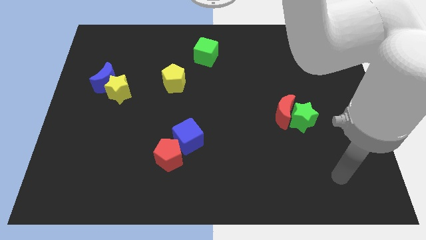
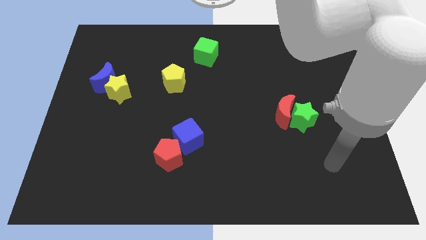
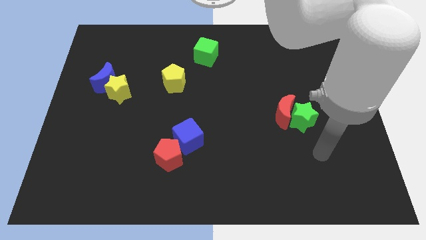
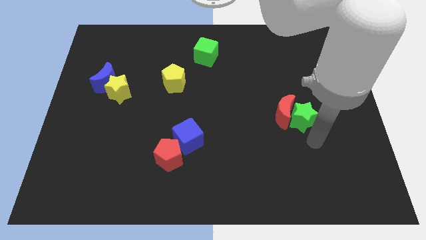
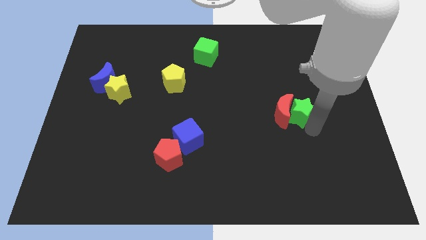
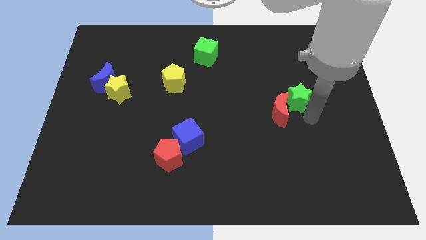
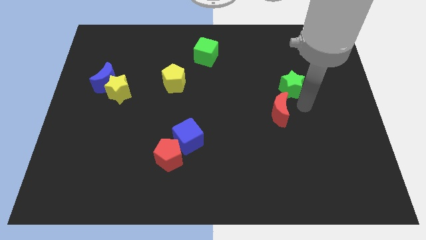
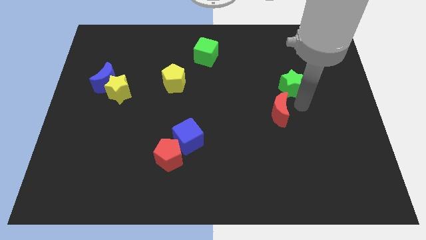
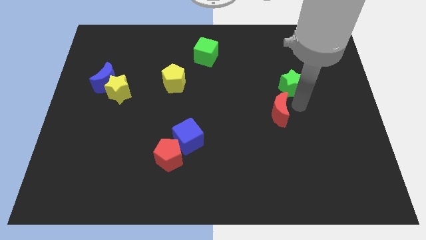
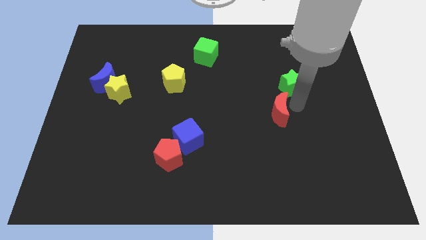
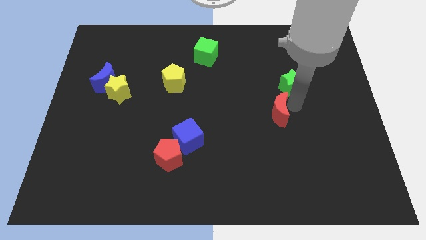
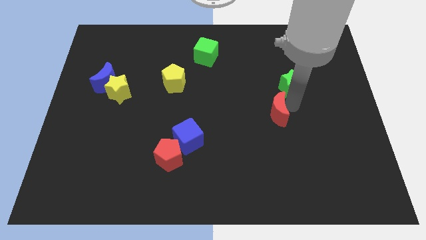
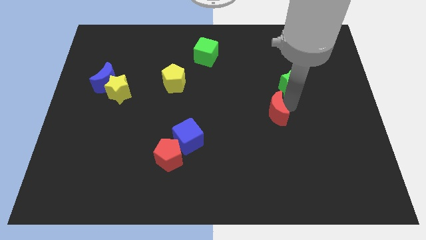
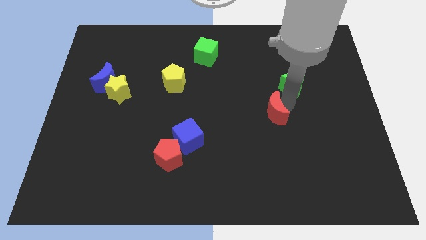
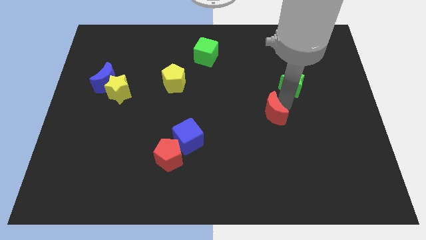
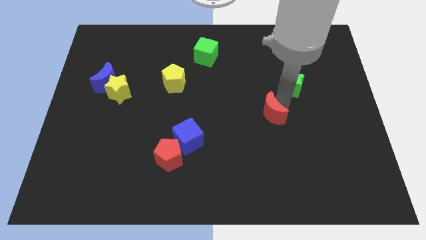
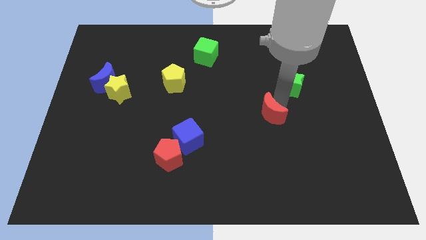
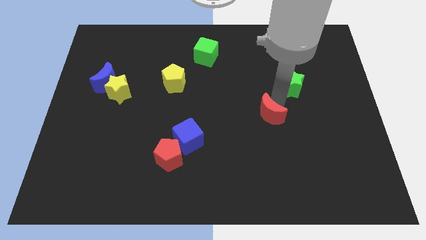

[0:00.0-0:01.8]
move the red moon away from the green star

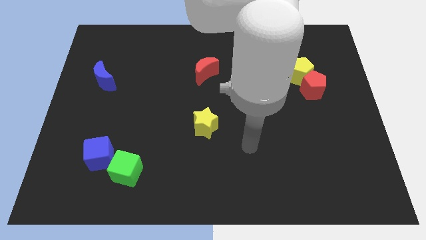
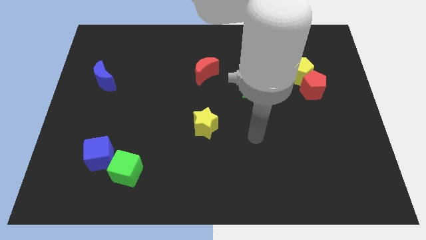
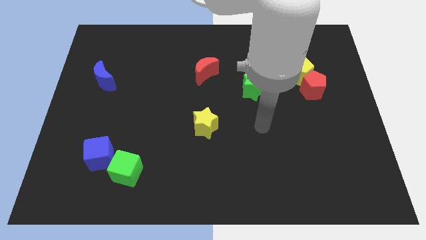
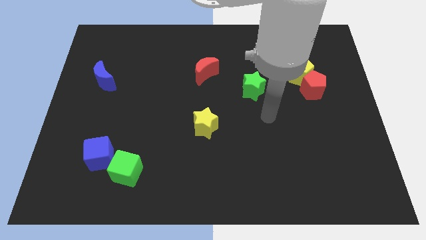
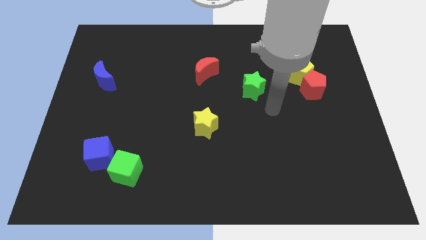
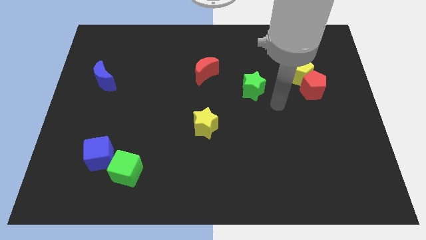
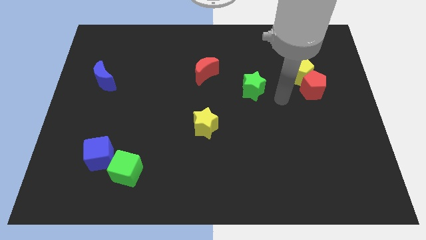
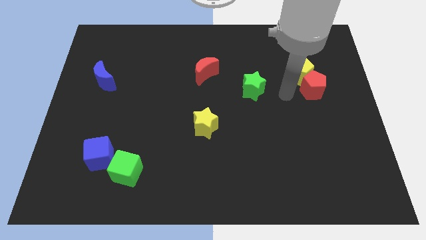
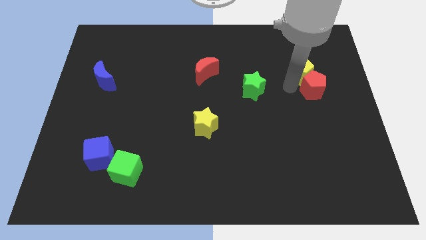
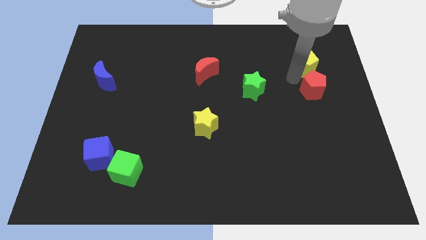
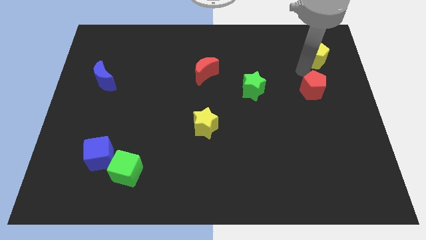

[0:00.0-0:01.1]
pull the red pentagon apart from the yellow pentagon

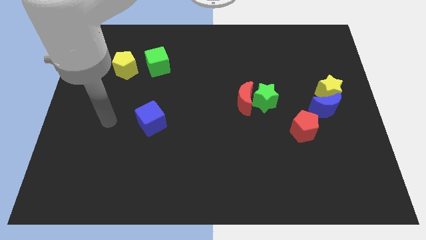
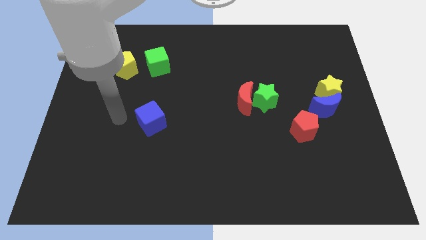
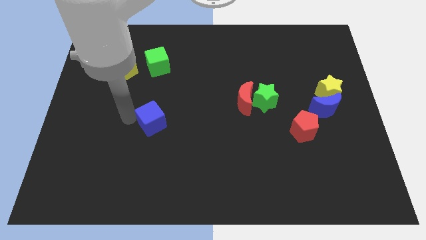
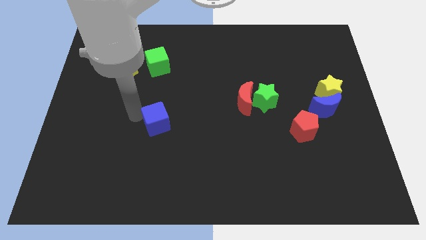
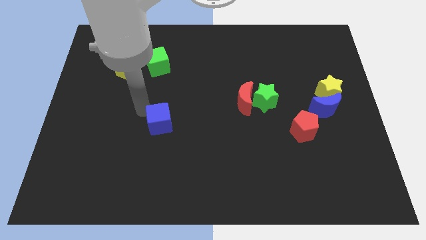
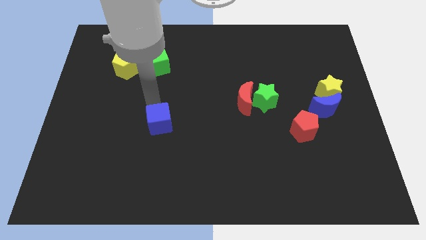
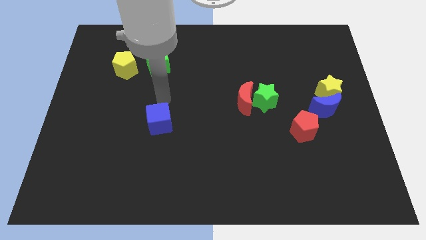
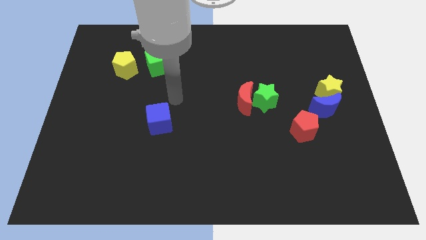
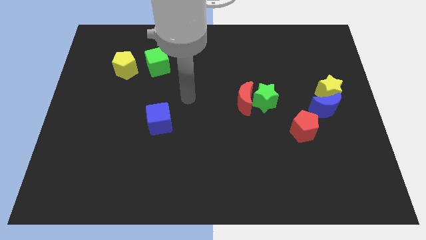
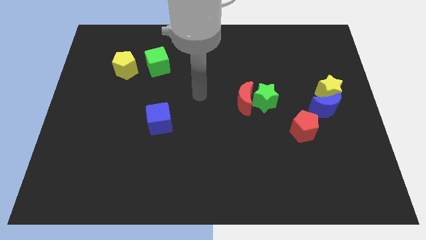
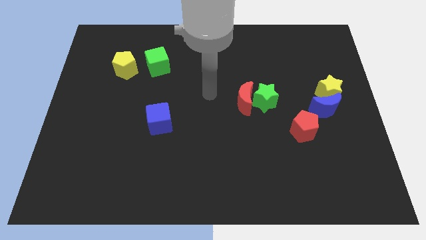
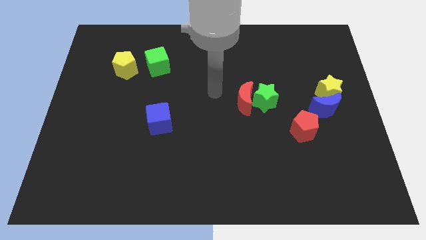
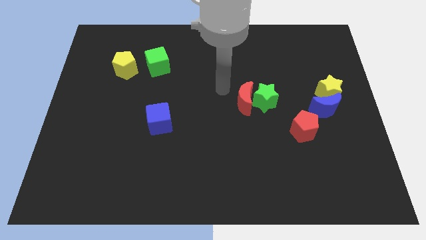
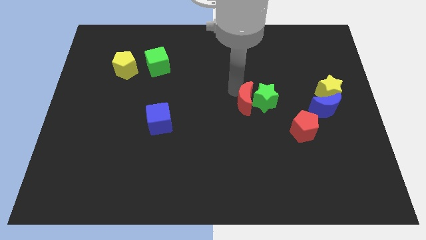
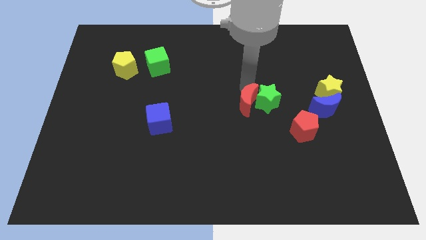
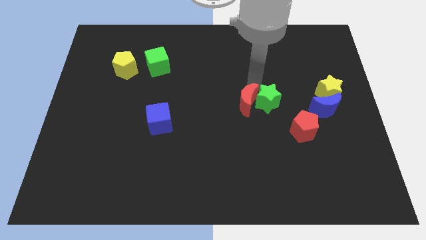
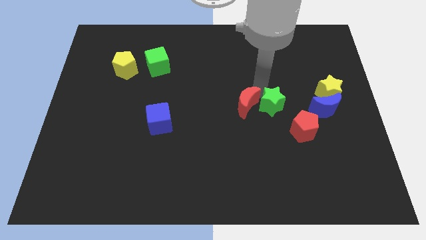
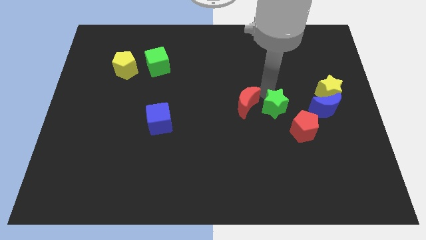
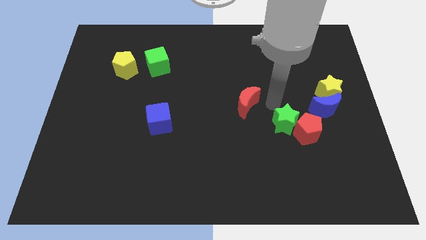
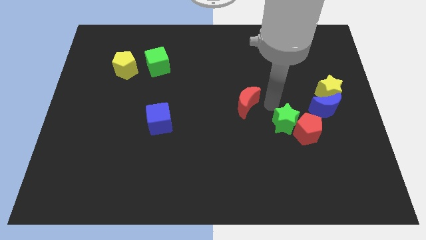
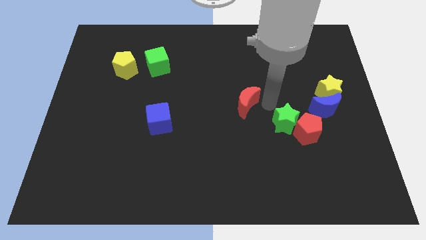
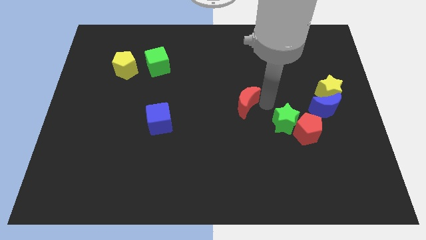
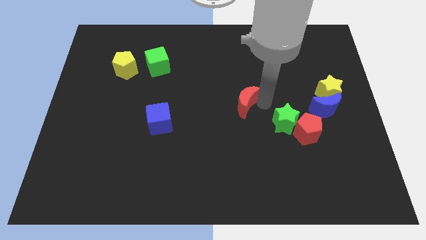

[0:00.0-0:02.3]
separate the red moon from the green star

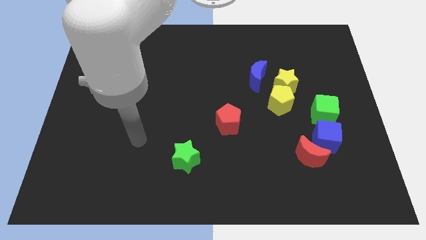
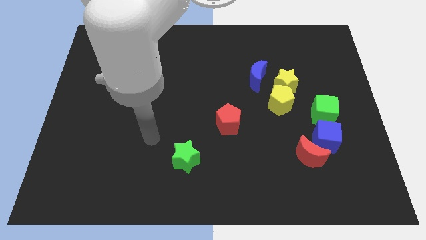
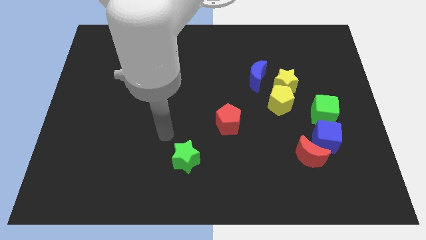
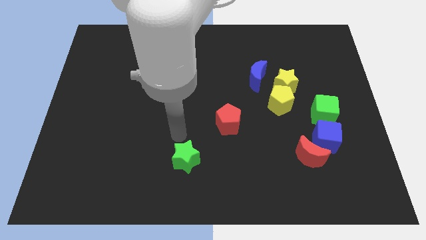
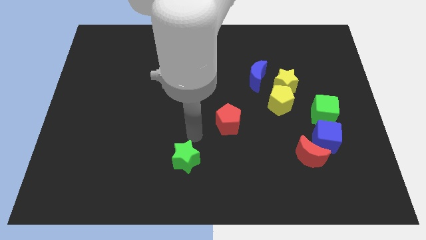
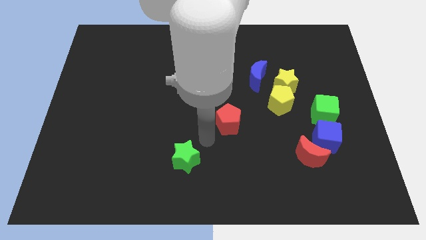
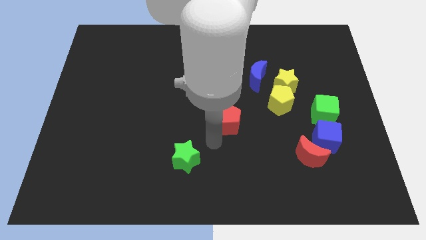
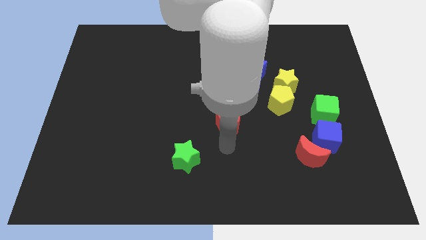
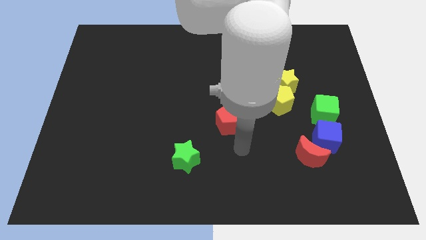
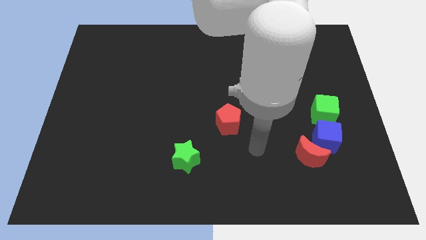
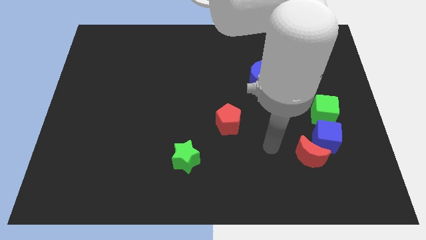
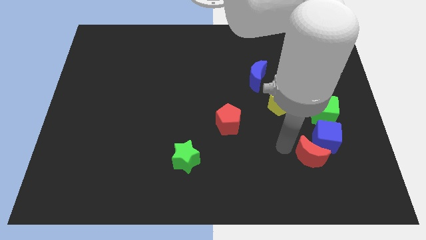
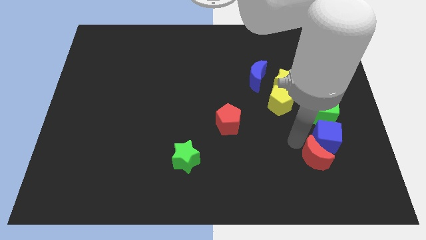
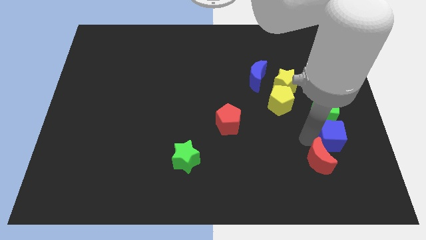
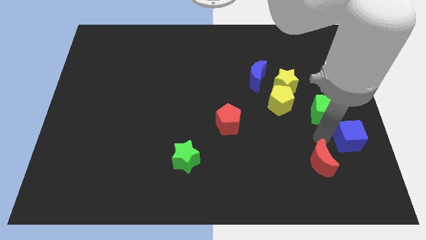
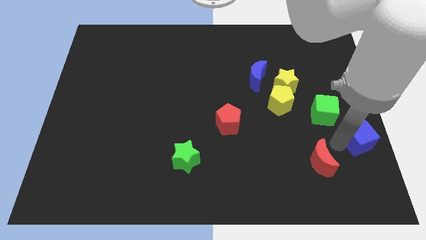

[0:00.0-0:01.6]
pull the red moon apart from the blue cube

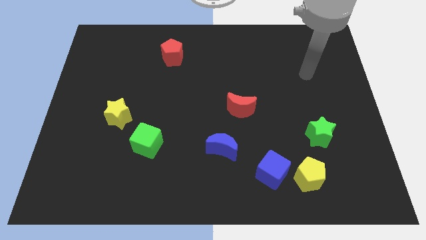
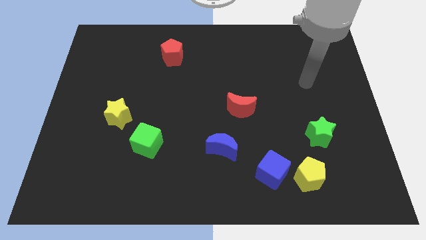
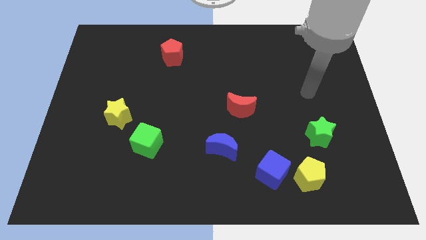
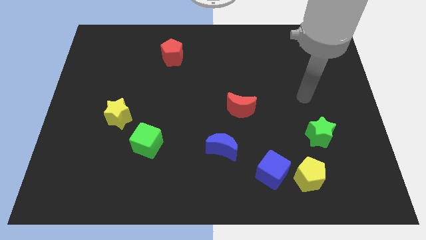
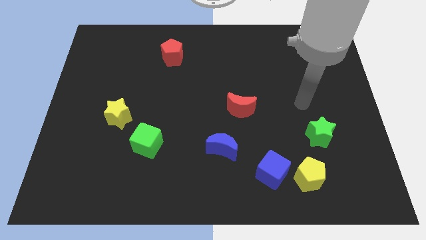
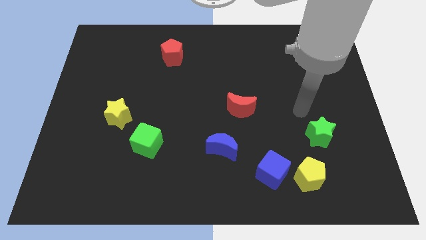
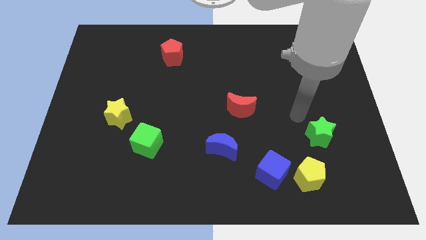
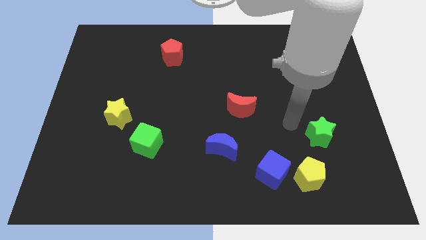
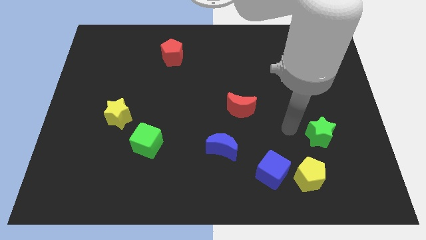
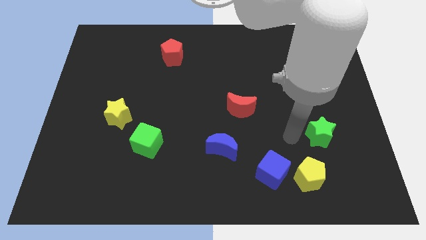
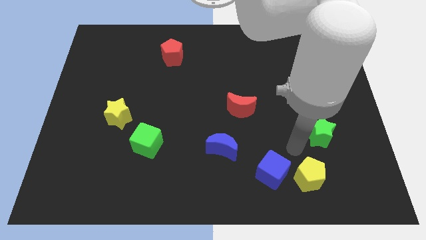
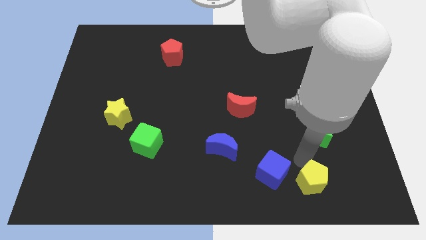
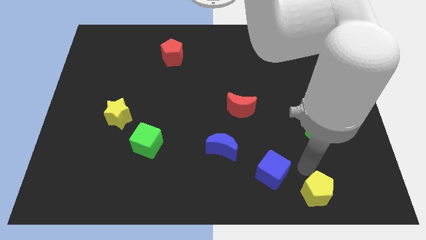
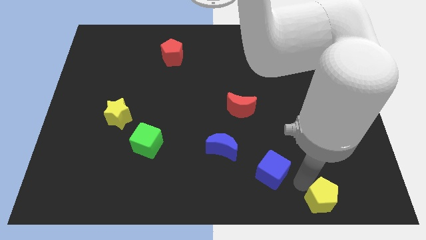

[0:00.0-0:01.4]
pull the blue cube apart from the yellow pentagon

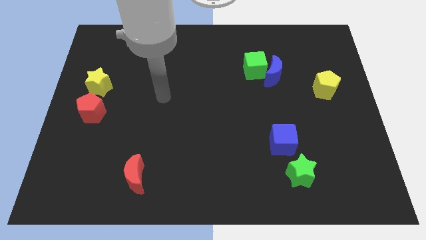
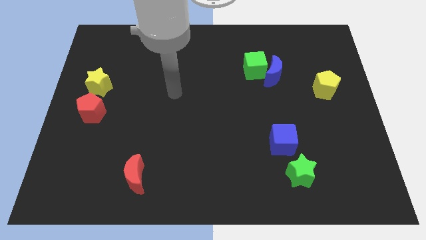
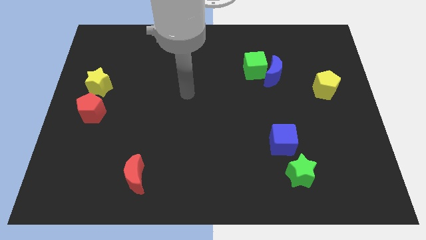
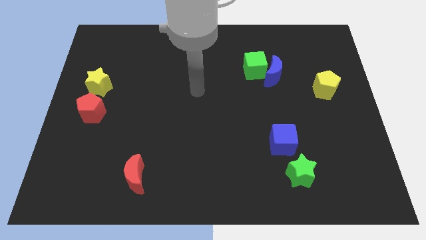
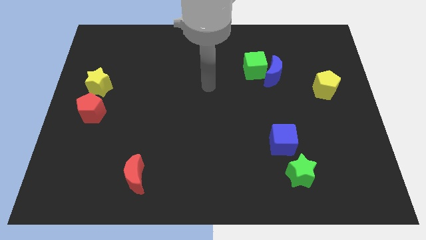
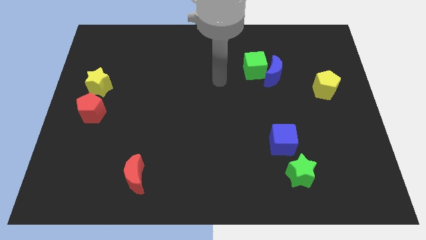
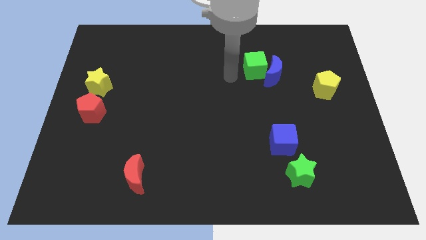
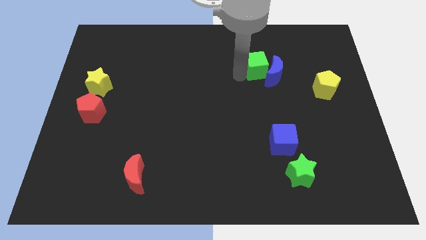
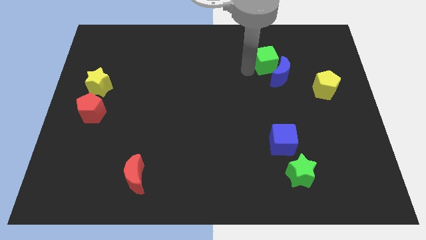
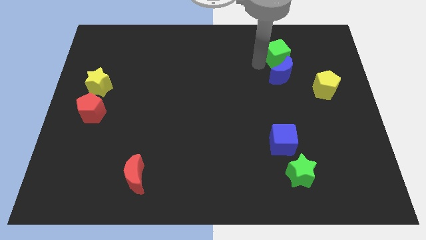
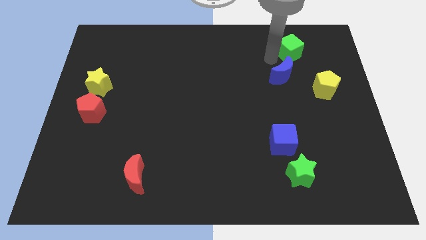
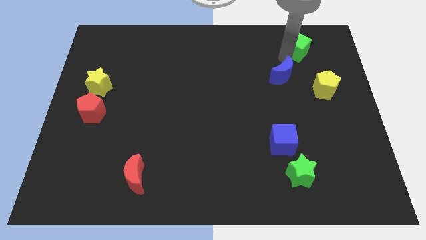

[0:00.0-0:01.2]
move the blue moon away from the green cube
